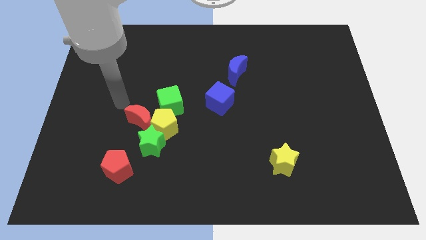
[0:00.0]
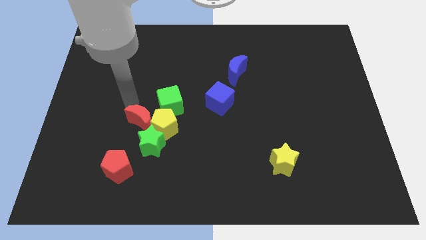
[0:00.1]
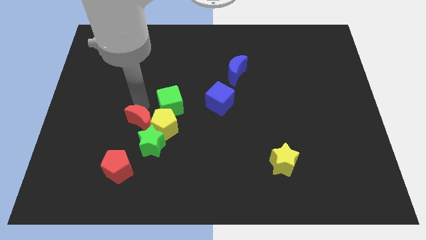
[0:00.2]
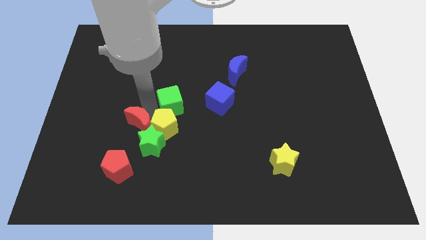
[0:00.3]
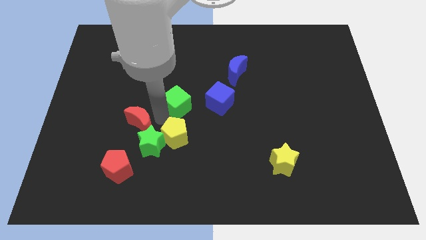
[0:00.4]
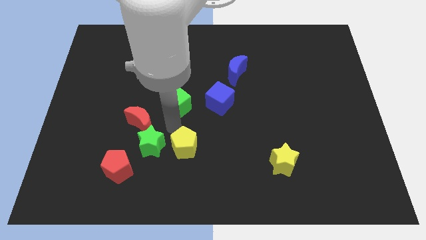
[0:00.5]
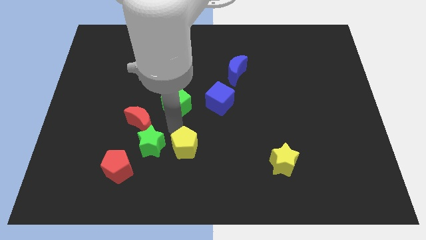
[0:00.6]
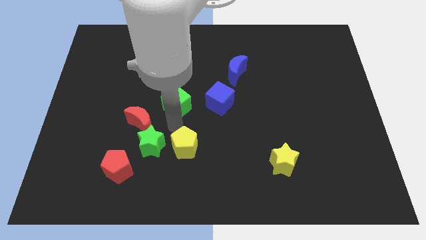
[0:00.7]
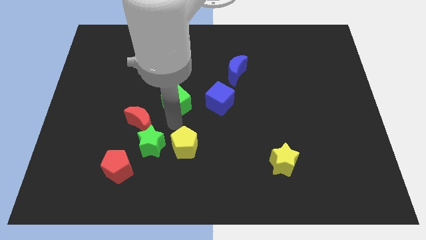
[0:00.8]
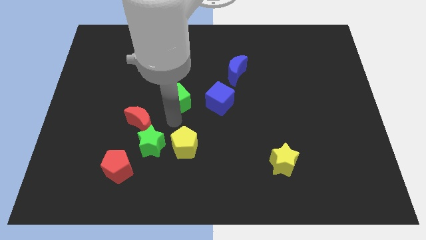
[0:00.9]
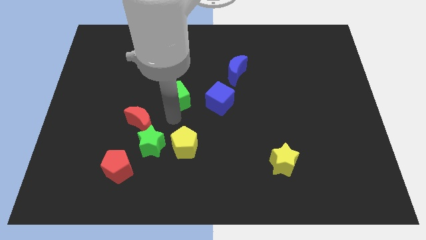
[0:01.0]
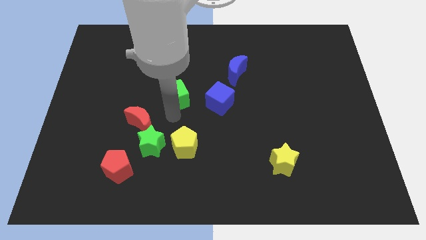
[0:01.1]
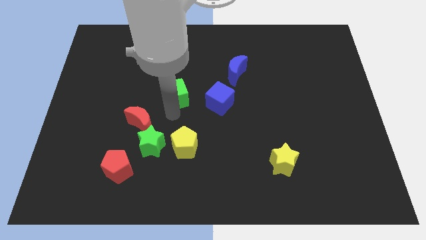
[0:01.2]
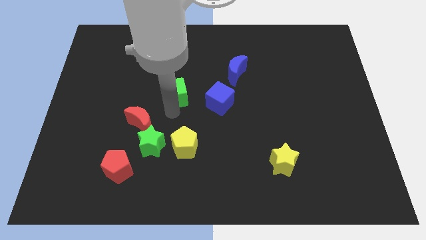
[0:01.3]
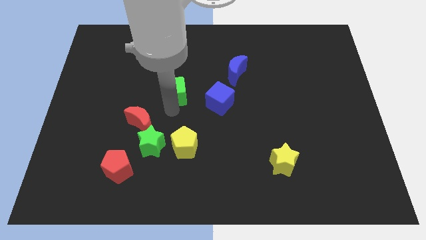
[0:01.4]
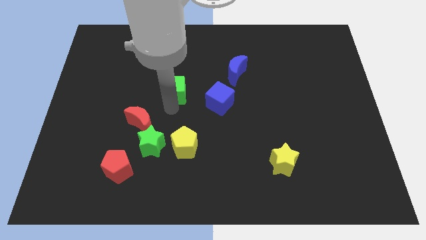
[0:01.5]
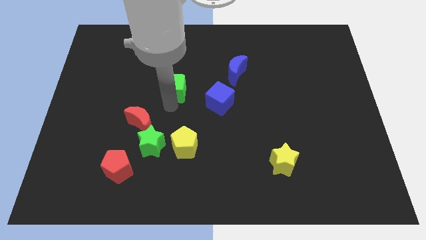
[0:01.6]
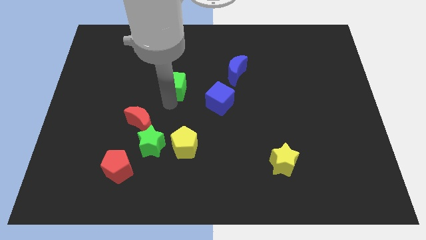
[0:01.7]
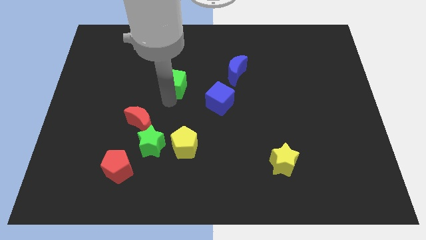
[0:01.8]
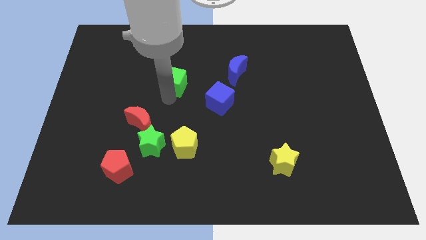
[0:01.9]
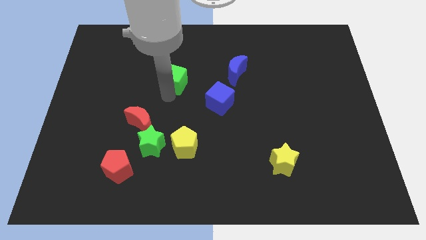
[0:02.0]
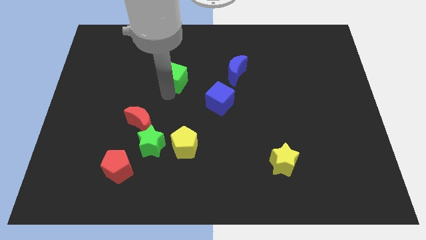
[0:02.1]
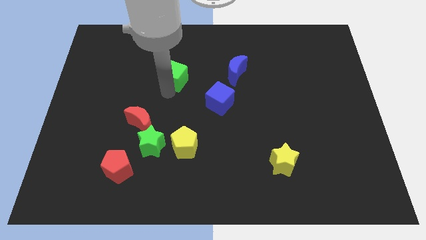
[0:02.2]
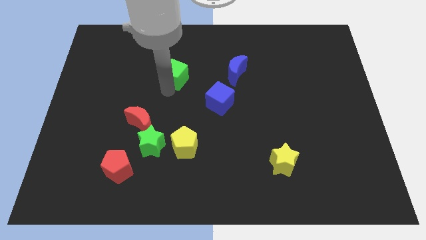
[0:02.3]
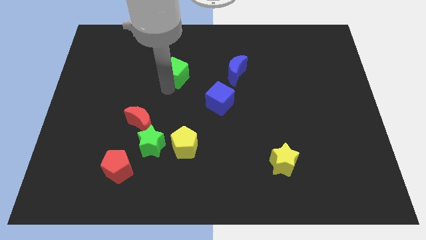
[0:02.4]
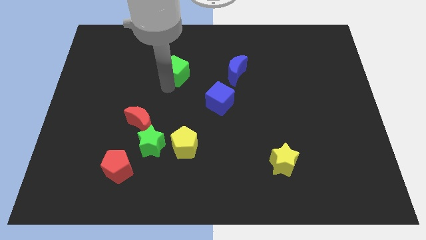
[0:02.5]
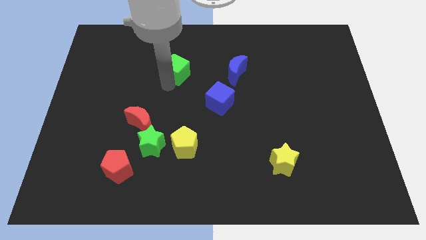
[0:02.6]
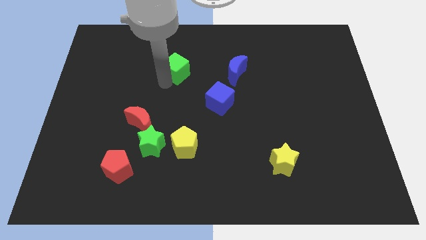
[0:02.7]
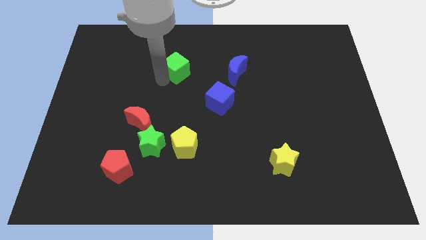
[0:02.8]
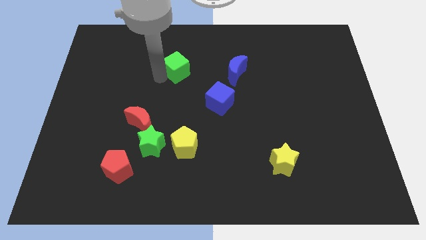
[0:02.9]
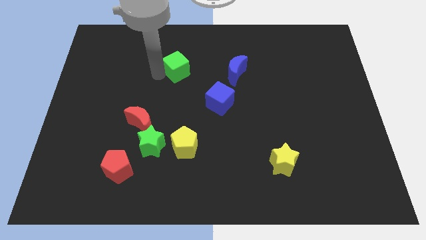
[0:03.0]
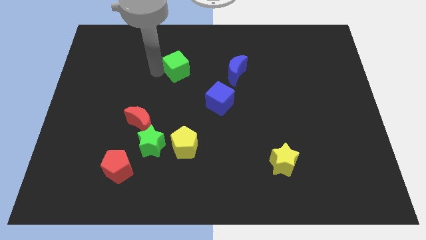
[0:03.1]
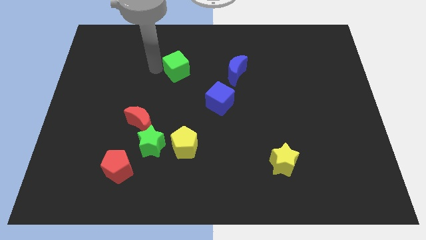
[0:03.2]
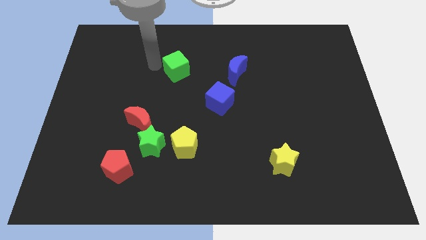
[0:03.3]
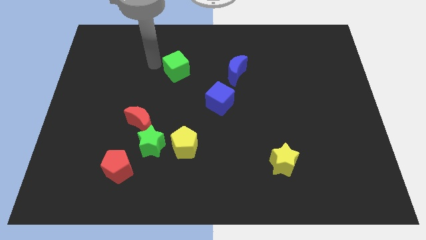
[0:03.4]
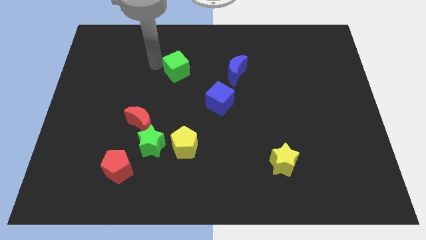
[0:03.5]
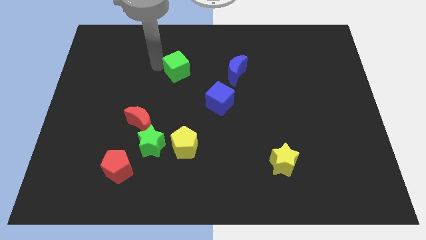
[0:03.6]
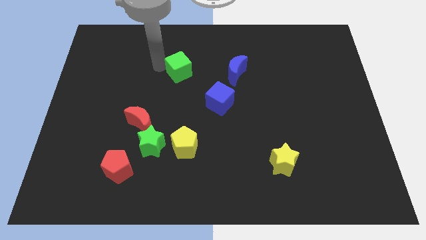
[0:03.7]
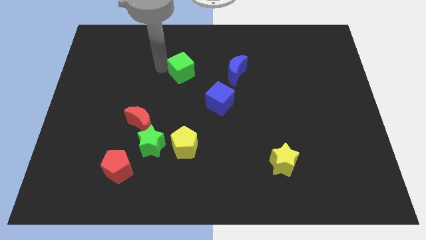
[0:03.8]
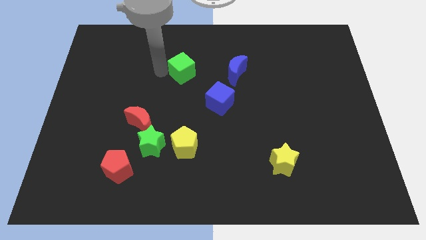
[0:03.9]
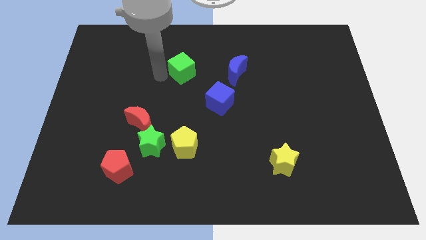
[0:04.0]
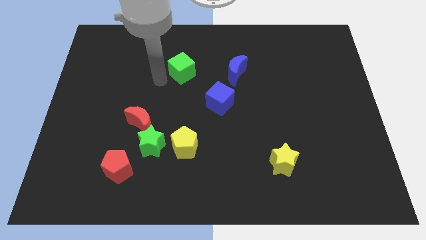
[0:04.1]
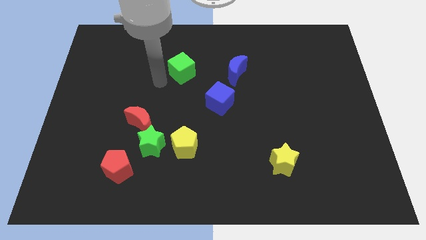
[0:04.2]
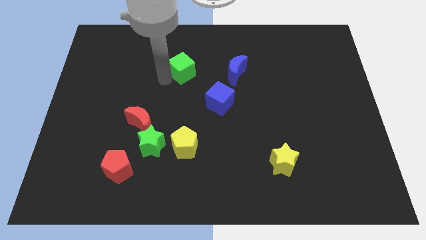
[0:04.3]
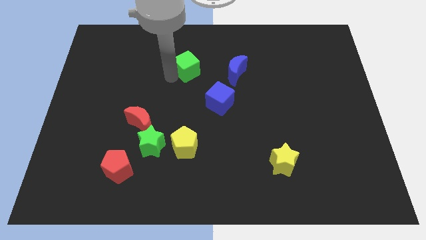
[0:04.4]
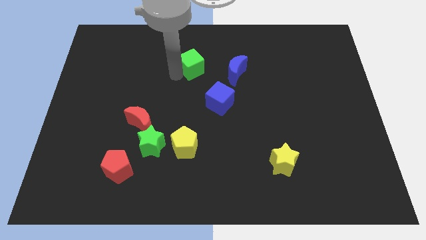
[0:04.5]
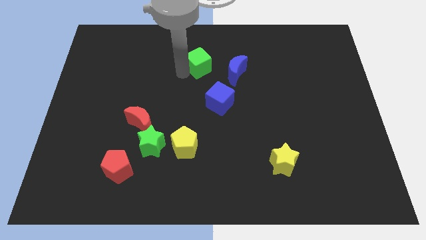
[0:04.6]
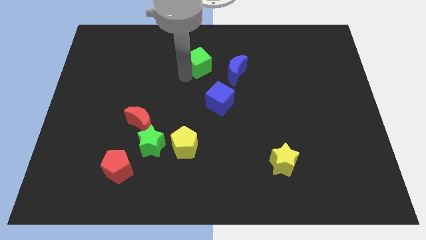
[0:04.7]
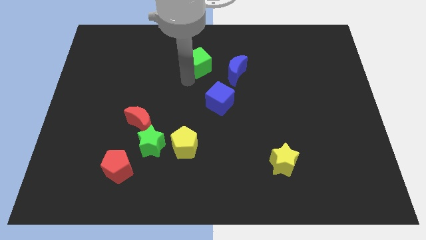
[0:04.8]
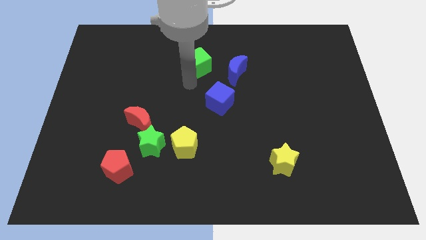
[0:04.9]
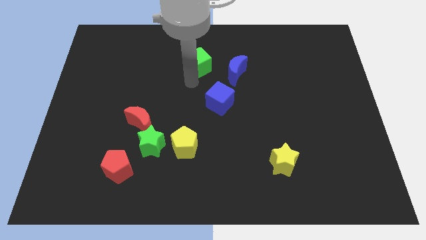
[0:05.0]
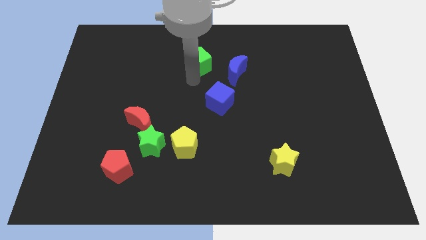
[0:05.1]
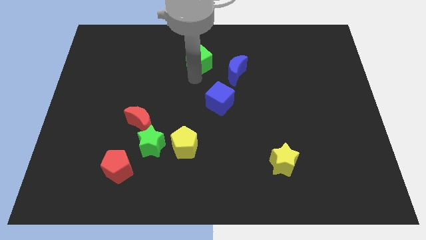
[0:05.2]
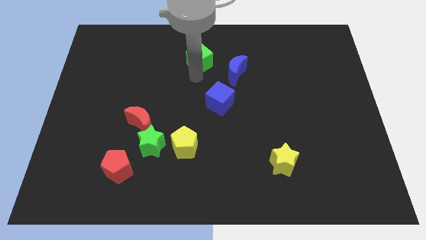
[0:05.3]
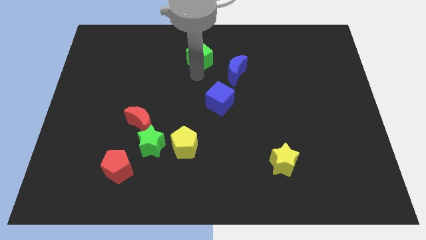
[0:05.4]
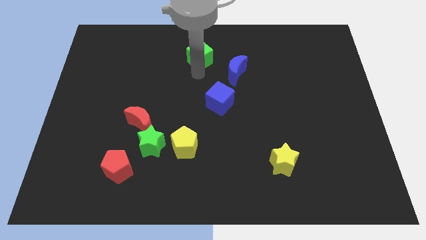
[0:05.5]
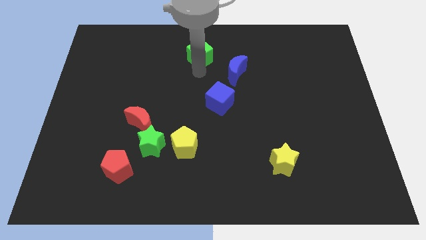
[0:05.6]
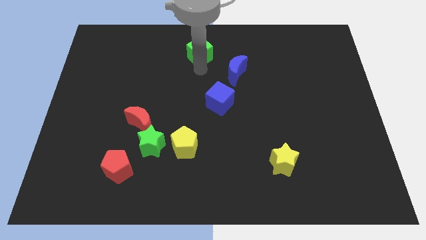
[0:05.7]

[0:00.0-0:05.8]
push the green cube to the top side

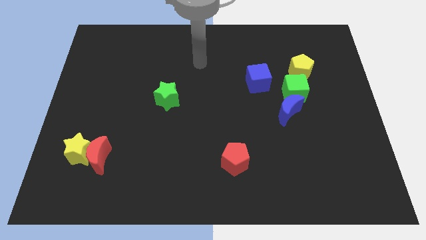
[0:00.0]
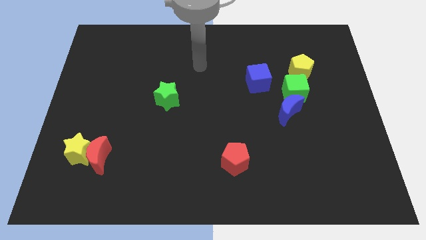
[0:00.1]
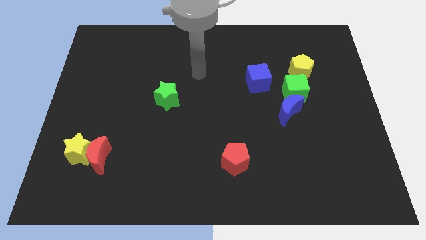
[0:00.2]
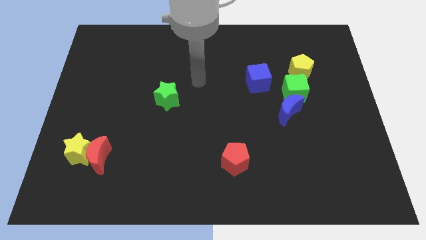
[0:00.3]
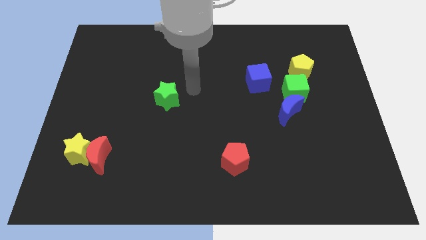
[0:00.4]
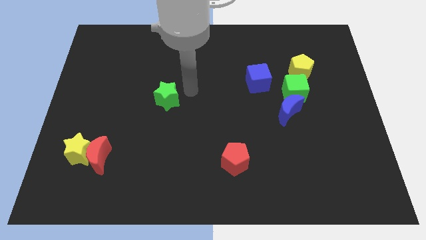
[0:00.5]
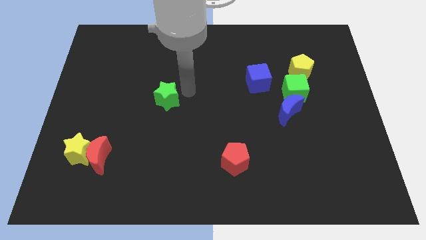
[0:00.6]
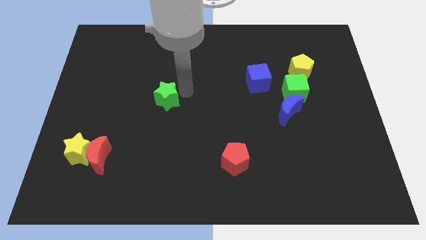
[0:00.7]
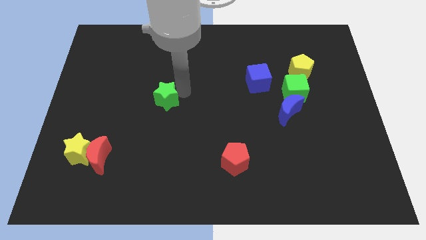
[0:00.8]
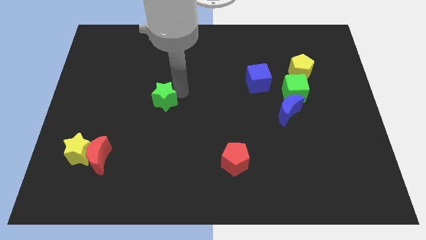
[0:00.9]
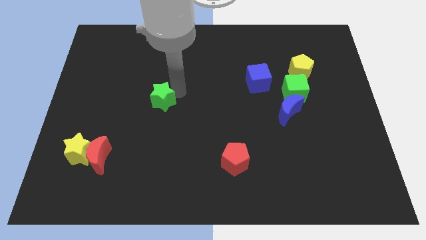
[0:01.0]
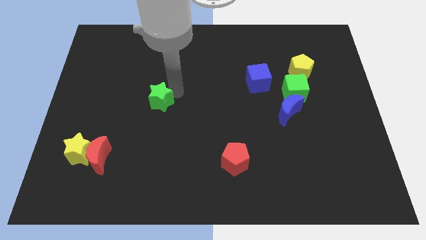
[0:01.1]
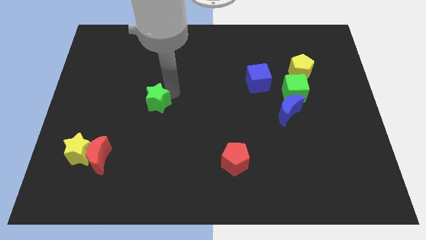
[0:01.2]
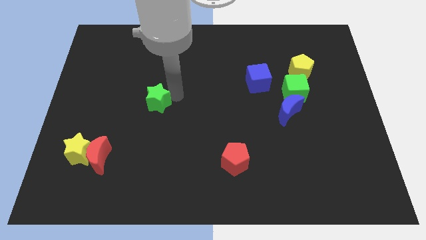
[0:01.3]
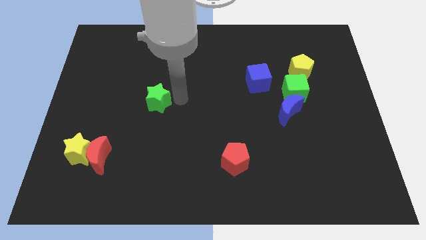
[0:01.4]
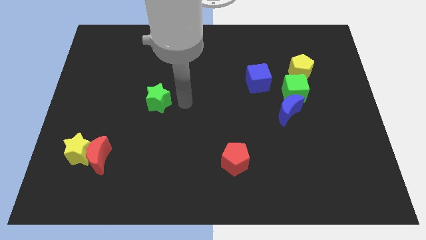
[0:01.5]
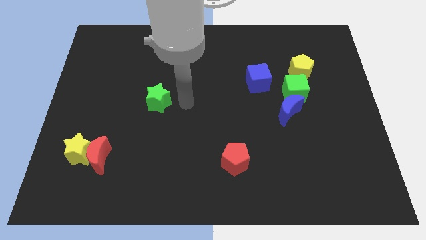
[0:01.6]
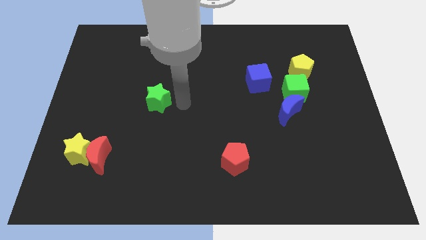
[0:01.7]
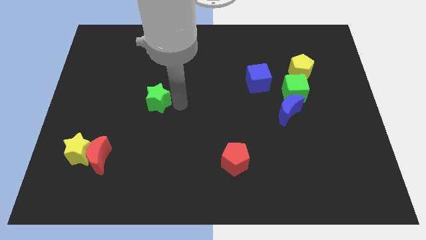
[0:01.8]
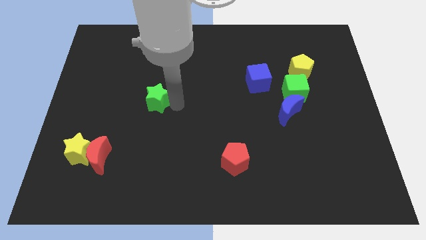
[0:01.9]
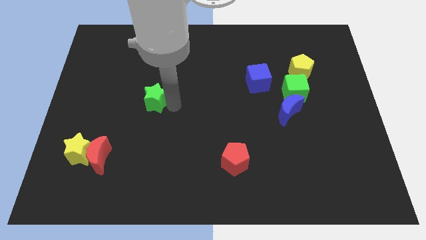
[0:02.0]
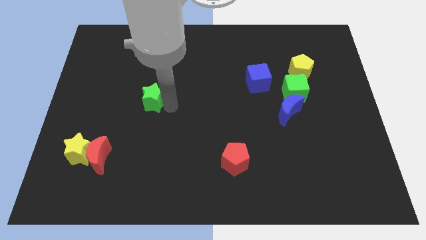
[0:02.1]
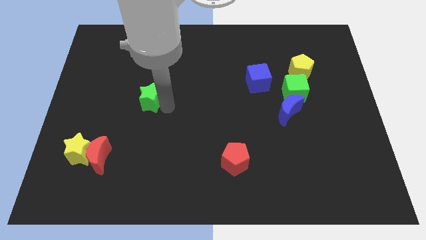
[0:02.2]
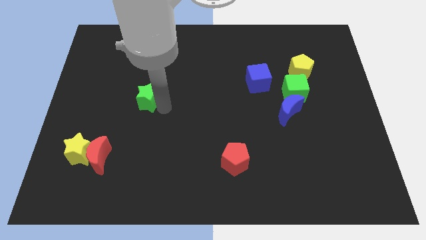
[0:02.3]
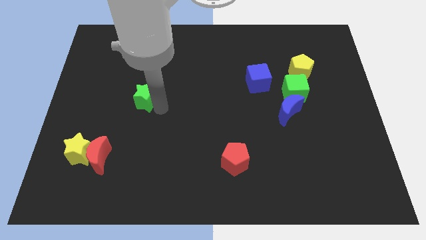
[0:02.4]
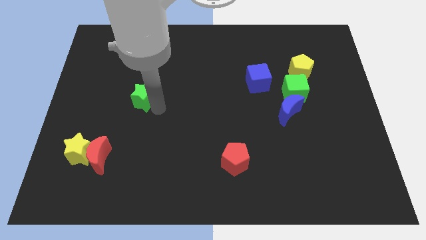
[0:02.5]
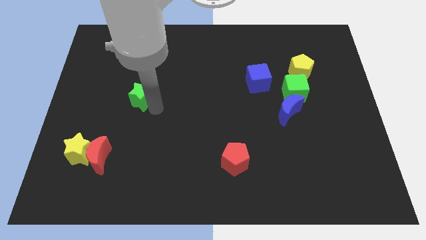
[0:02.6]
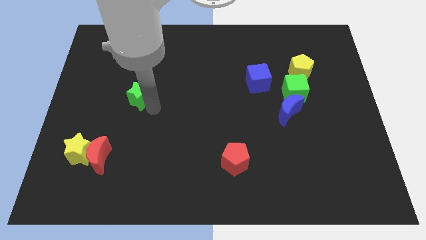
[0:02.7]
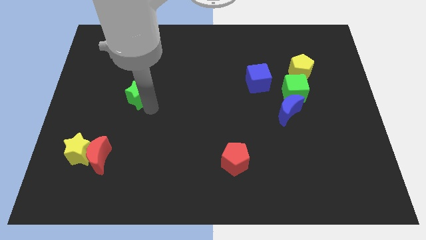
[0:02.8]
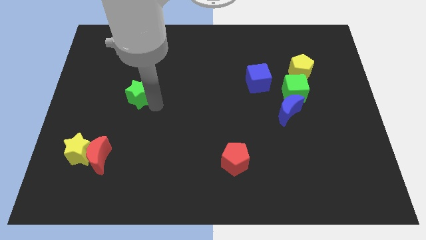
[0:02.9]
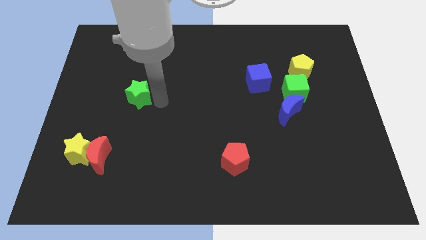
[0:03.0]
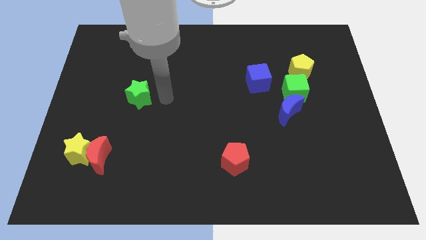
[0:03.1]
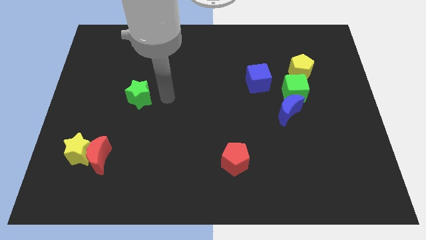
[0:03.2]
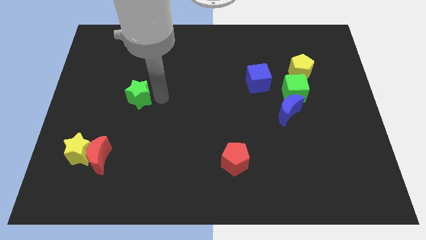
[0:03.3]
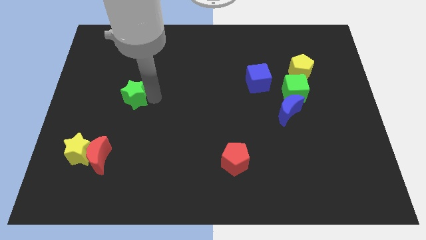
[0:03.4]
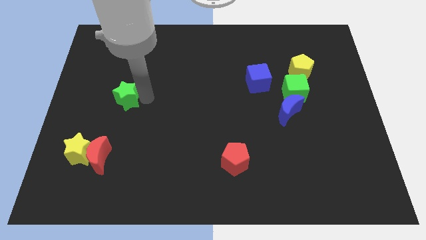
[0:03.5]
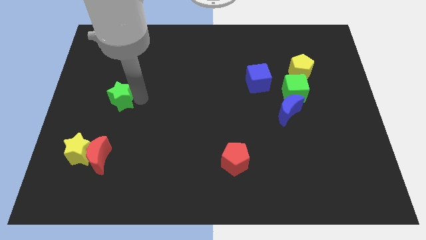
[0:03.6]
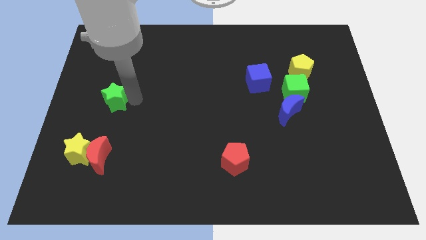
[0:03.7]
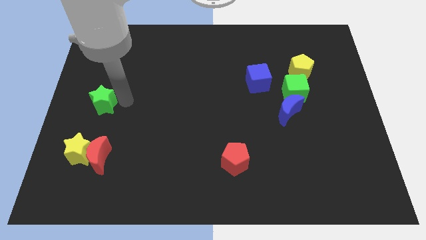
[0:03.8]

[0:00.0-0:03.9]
put the green star to the left side
